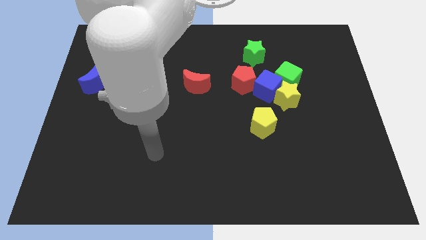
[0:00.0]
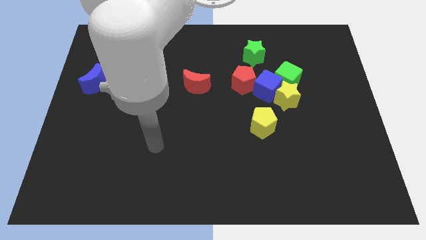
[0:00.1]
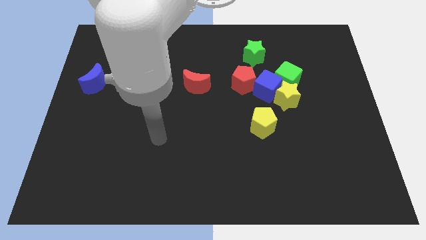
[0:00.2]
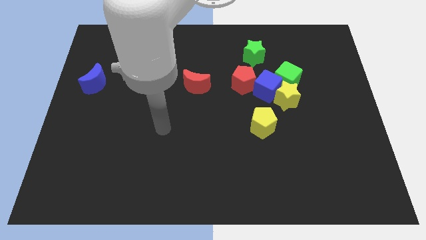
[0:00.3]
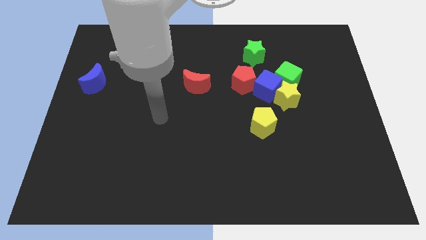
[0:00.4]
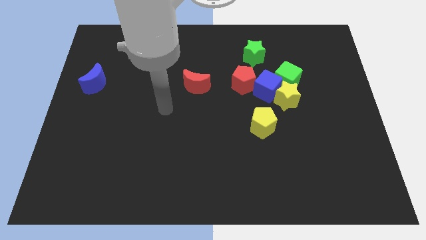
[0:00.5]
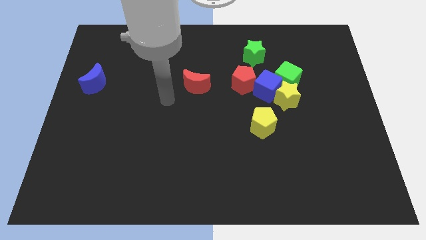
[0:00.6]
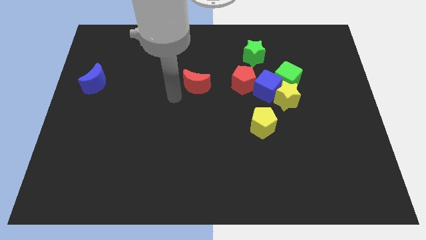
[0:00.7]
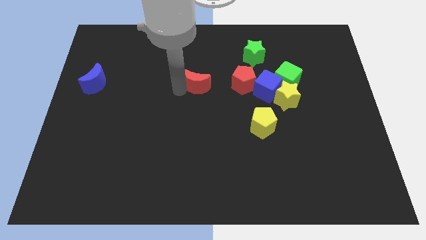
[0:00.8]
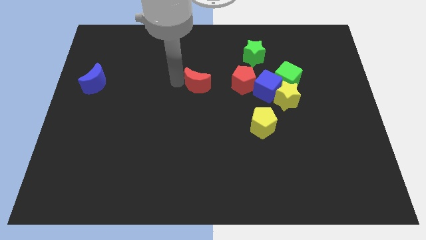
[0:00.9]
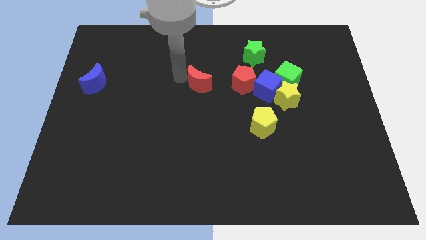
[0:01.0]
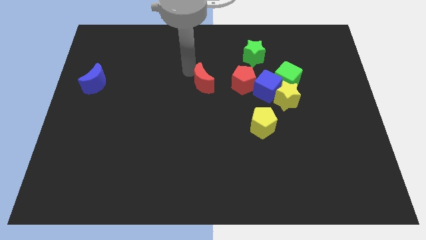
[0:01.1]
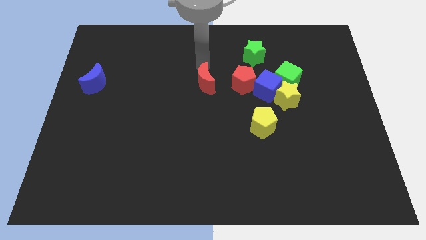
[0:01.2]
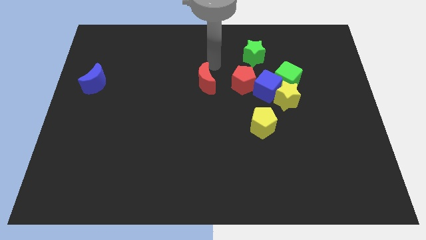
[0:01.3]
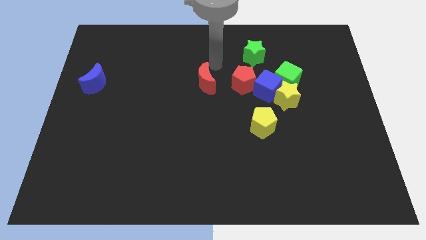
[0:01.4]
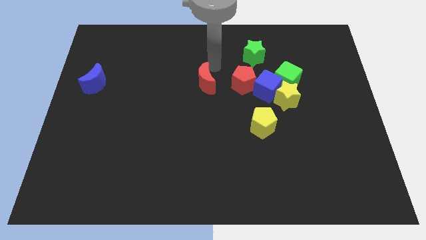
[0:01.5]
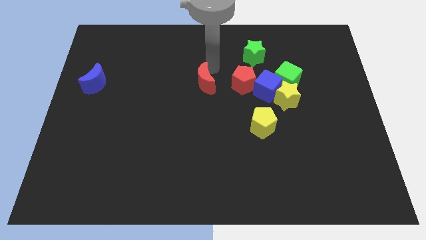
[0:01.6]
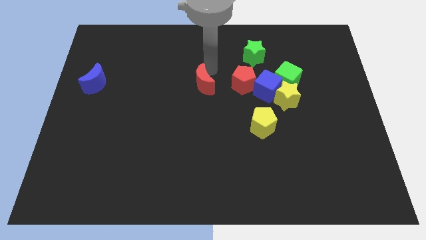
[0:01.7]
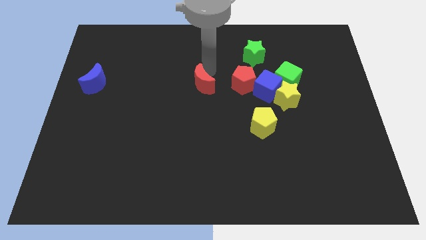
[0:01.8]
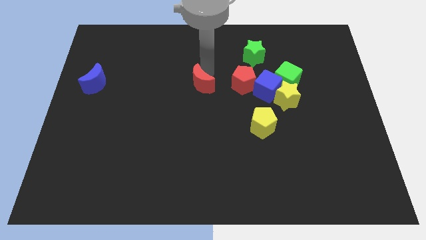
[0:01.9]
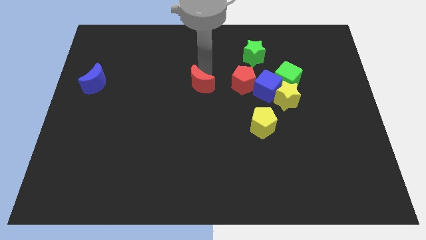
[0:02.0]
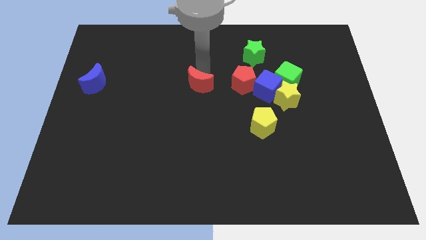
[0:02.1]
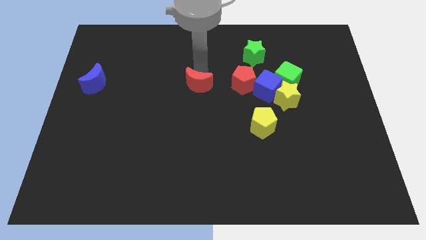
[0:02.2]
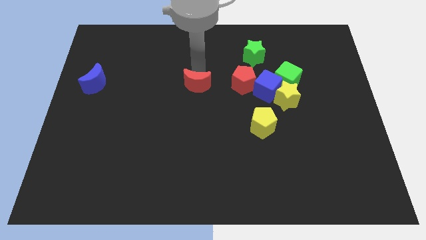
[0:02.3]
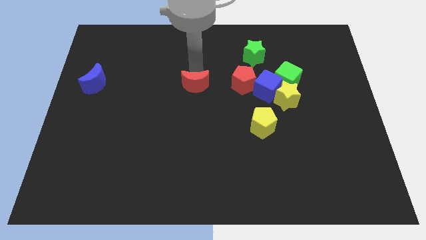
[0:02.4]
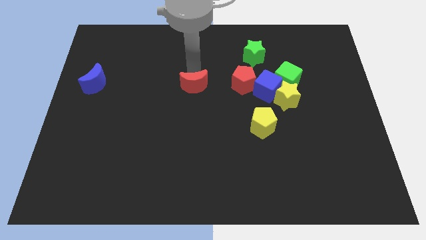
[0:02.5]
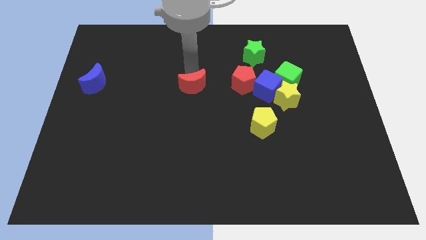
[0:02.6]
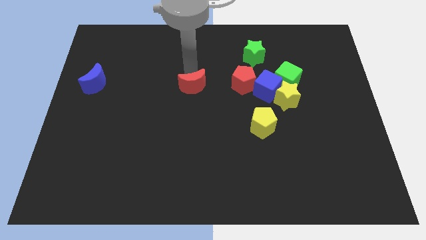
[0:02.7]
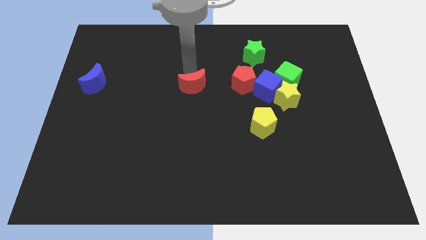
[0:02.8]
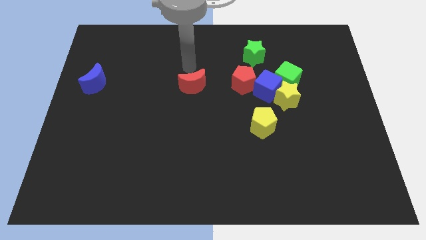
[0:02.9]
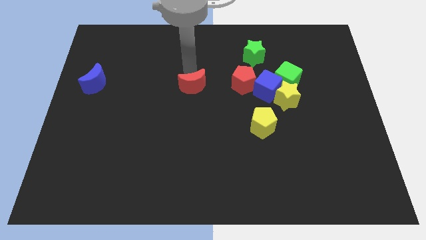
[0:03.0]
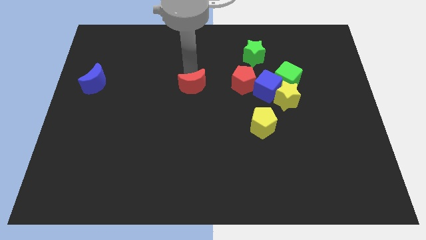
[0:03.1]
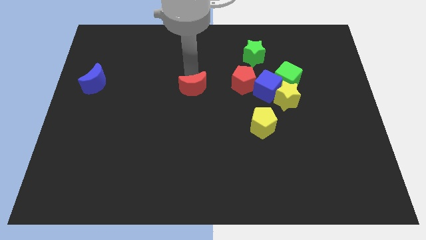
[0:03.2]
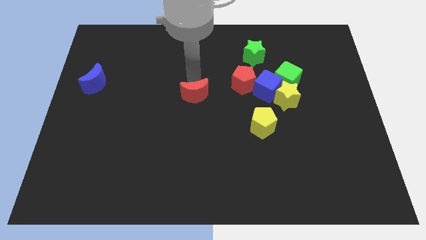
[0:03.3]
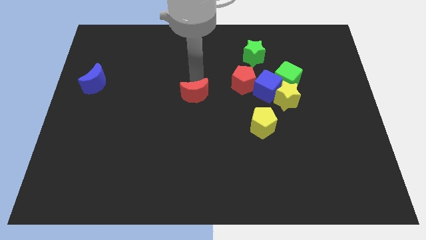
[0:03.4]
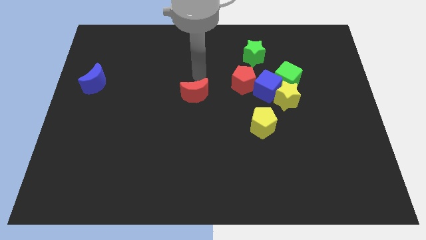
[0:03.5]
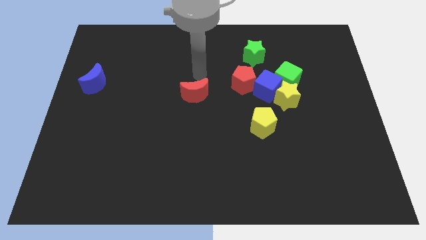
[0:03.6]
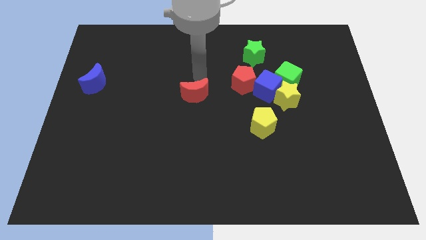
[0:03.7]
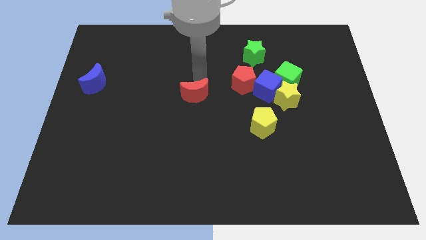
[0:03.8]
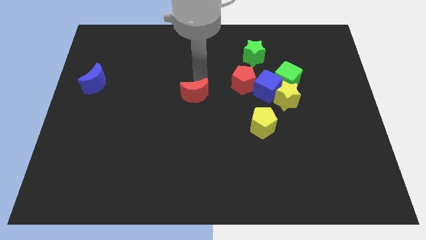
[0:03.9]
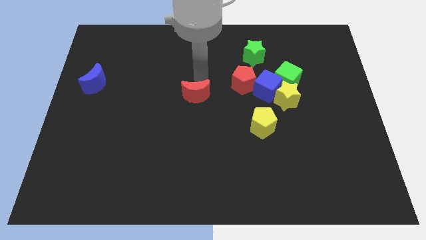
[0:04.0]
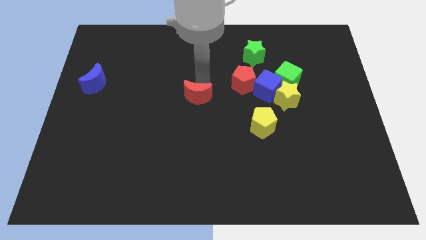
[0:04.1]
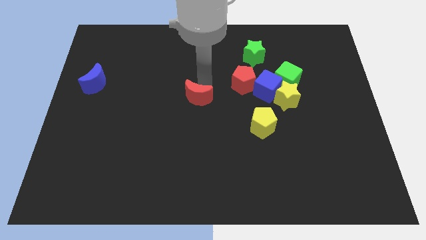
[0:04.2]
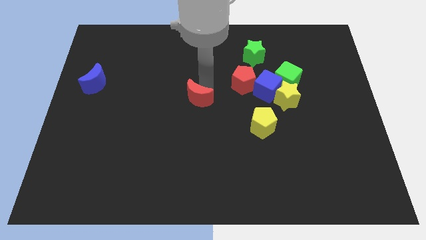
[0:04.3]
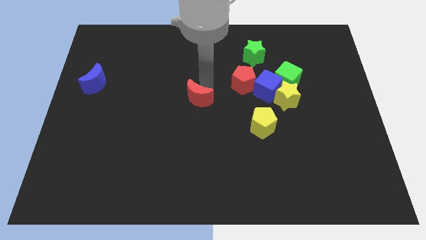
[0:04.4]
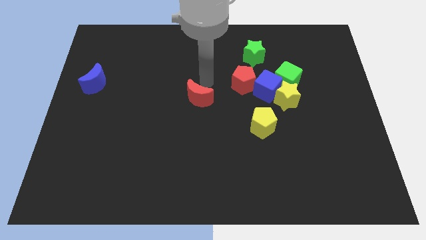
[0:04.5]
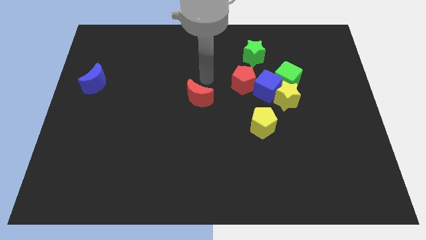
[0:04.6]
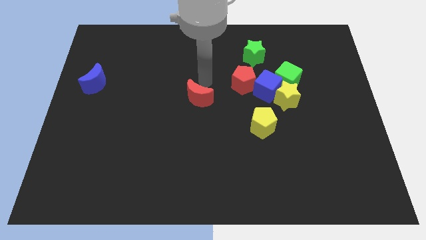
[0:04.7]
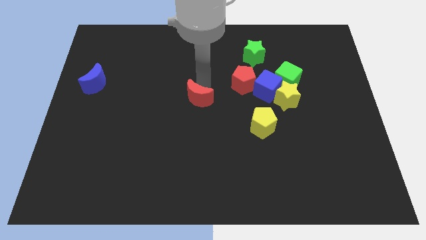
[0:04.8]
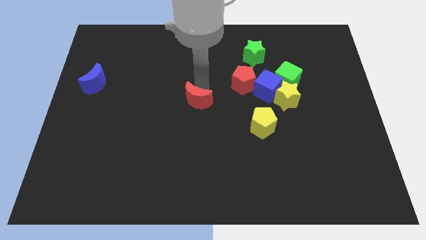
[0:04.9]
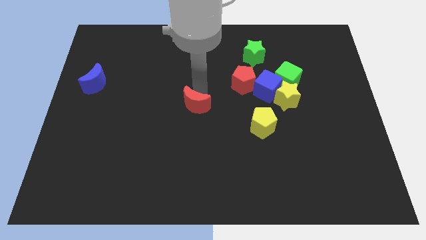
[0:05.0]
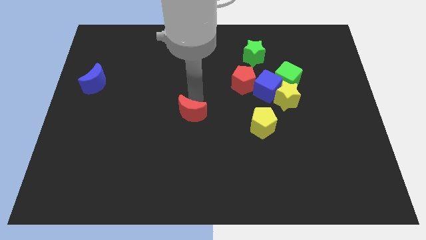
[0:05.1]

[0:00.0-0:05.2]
push the red moon down a bit

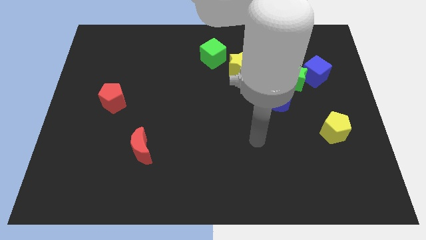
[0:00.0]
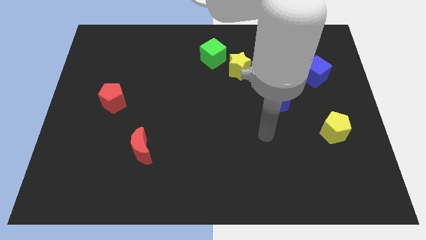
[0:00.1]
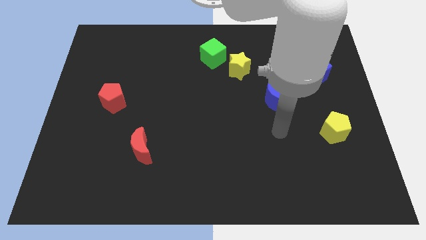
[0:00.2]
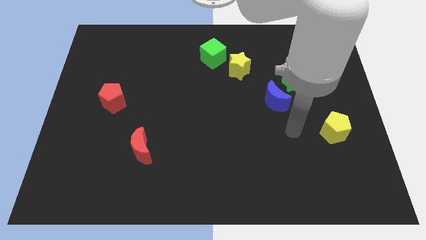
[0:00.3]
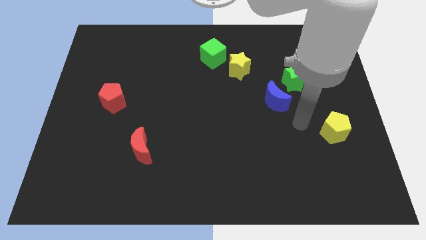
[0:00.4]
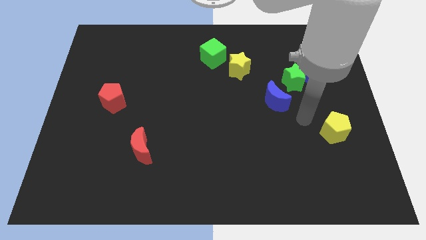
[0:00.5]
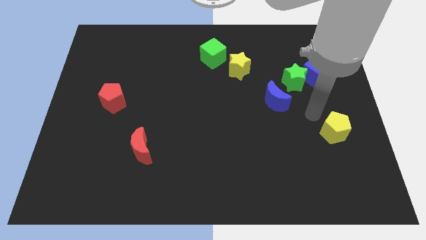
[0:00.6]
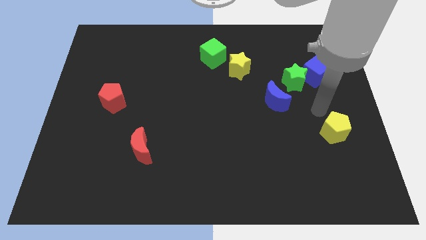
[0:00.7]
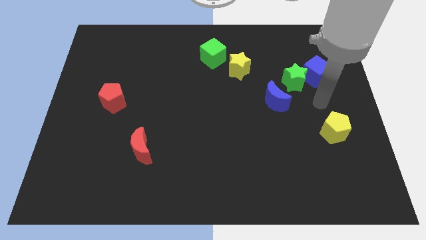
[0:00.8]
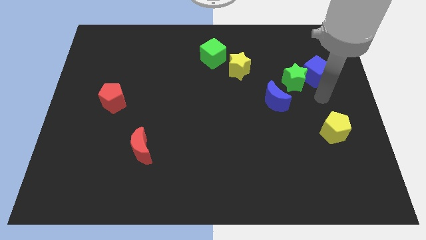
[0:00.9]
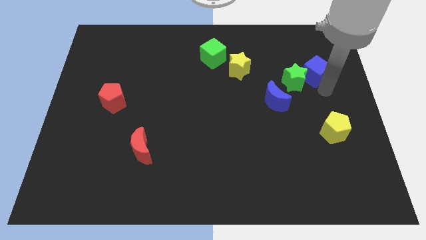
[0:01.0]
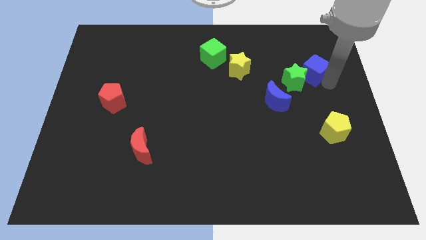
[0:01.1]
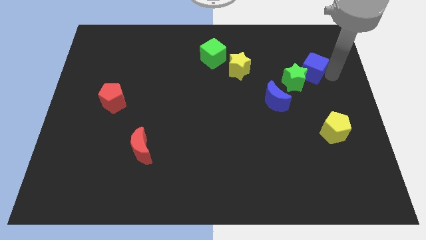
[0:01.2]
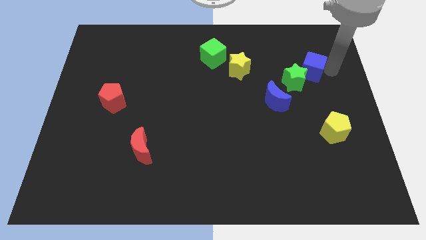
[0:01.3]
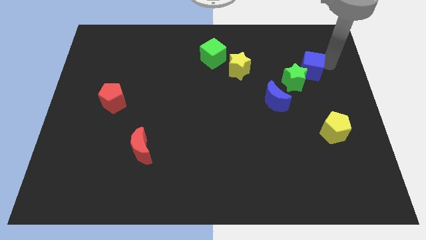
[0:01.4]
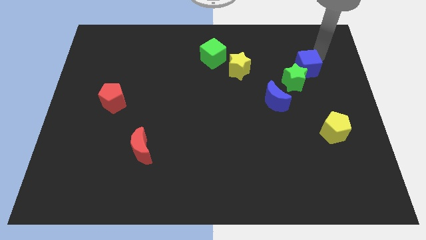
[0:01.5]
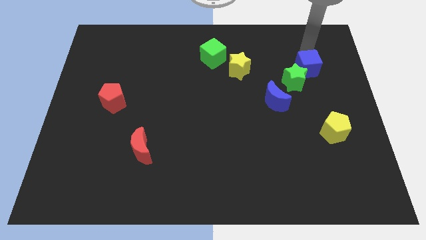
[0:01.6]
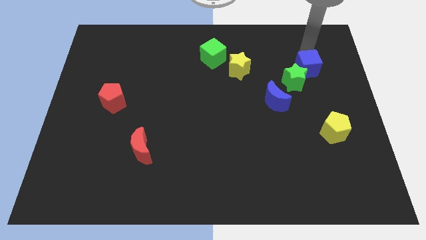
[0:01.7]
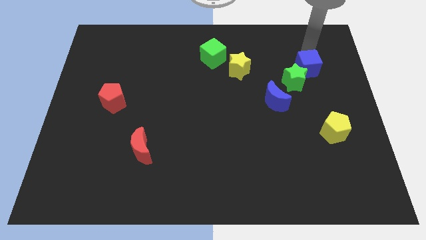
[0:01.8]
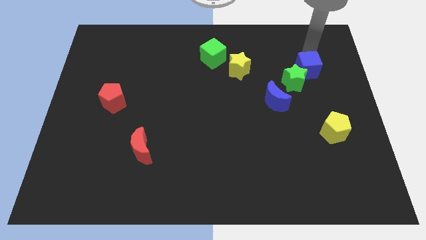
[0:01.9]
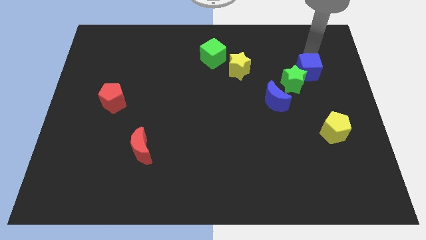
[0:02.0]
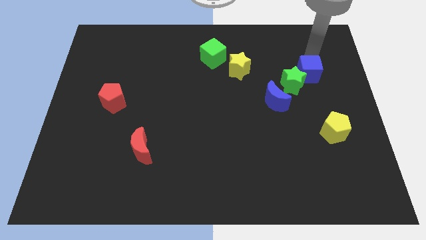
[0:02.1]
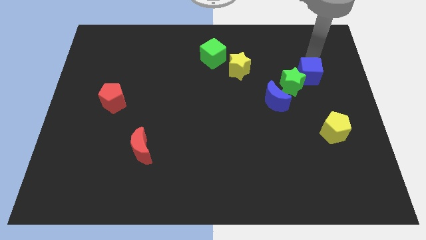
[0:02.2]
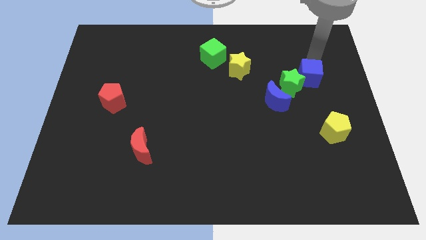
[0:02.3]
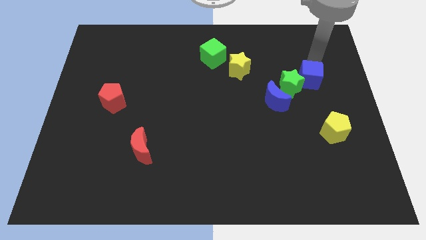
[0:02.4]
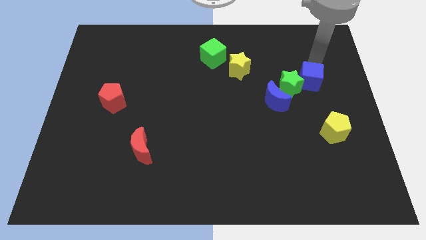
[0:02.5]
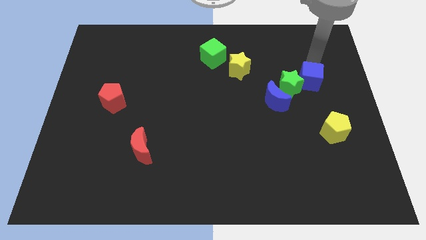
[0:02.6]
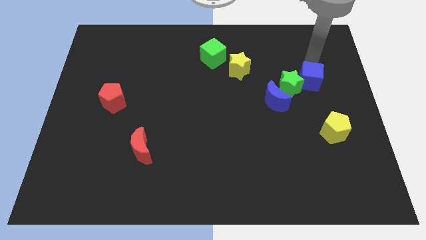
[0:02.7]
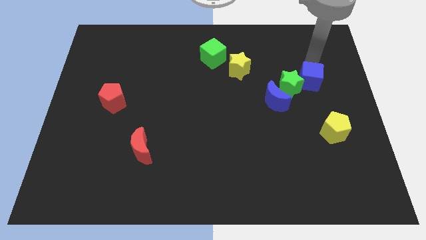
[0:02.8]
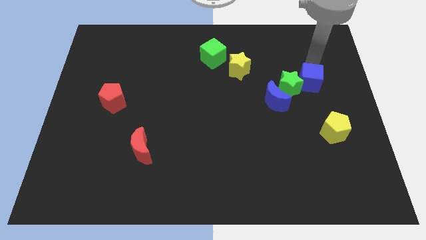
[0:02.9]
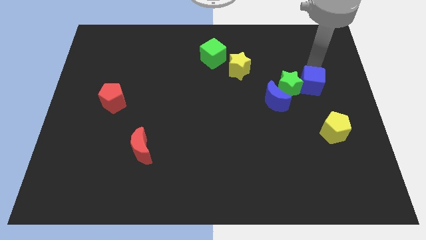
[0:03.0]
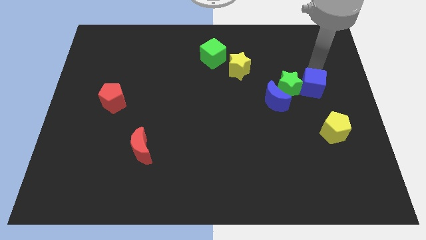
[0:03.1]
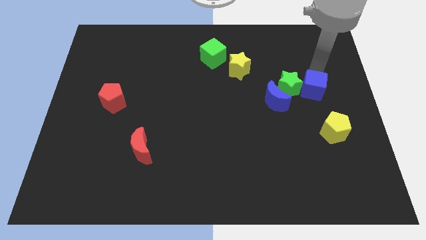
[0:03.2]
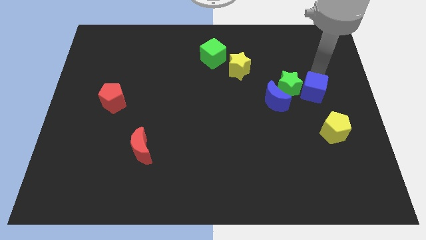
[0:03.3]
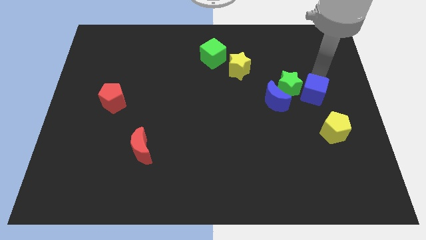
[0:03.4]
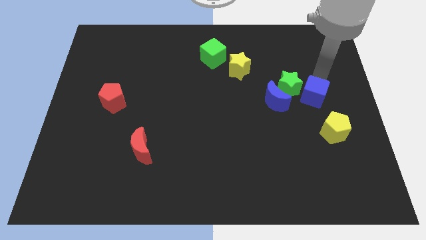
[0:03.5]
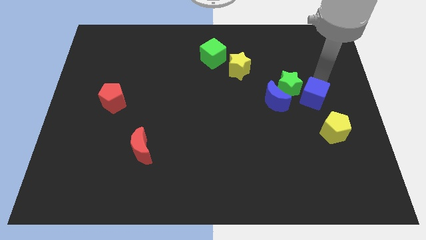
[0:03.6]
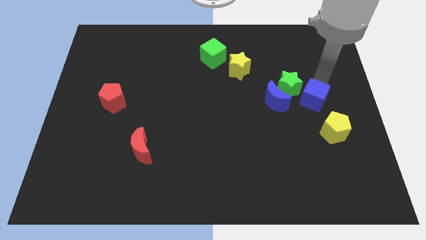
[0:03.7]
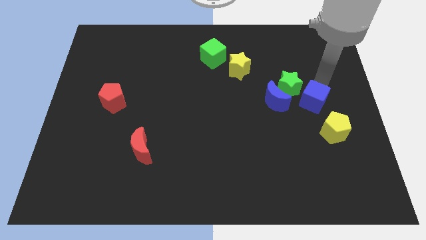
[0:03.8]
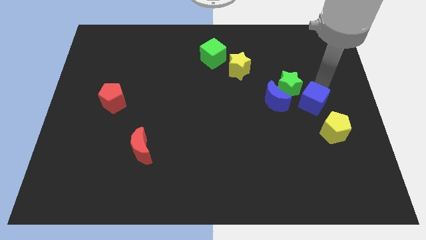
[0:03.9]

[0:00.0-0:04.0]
slide the blue cube down and to the left slightly
